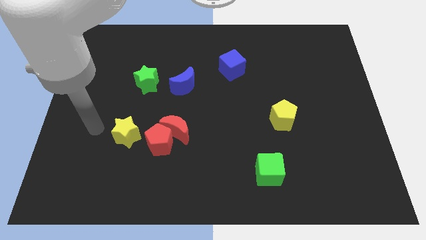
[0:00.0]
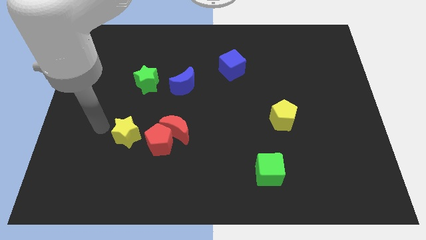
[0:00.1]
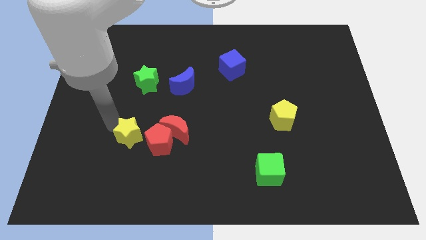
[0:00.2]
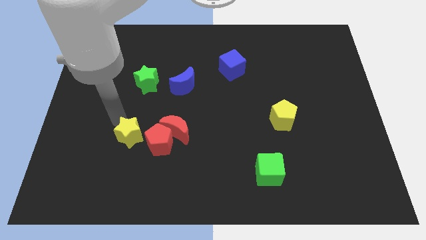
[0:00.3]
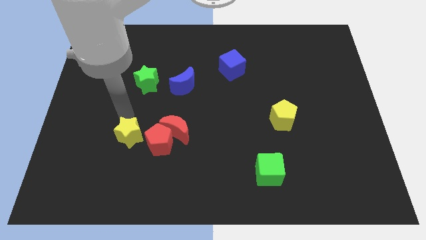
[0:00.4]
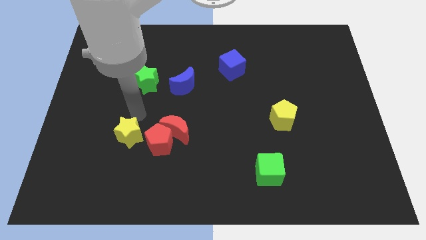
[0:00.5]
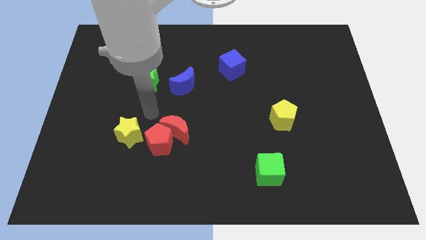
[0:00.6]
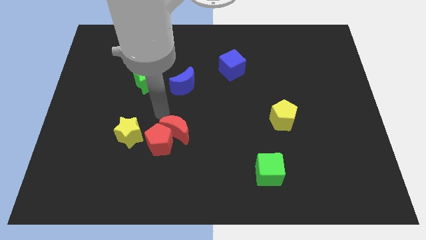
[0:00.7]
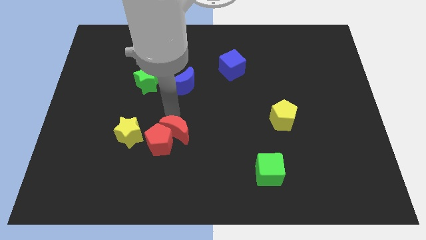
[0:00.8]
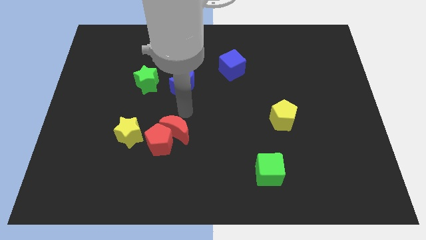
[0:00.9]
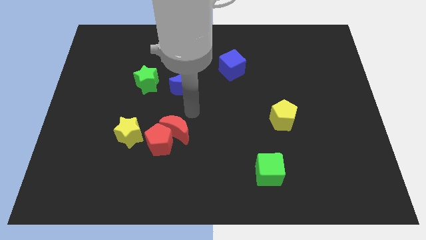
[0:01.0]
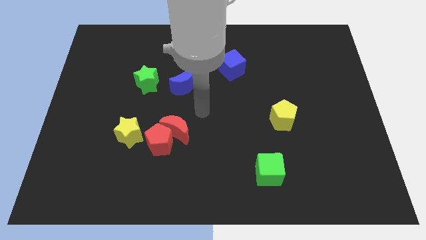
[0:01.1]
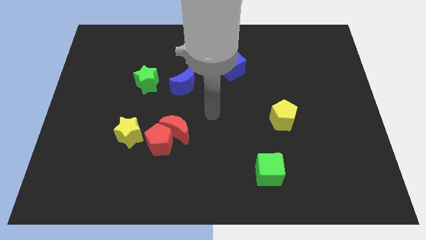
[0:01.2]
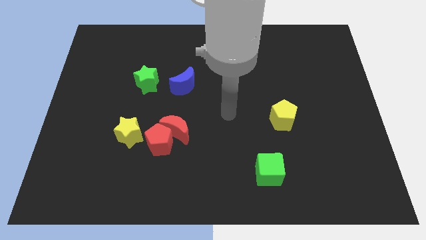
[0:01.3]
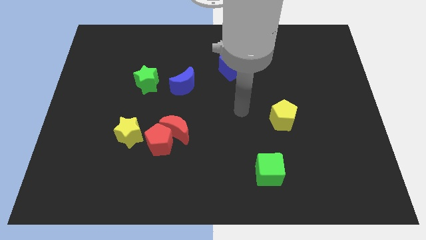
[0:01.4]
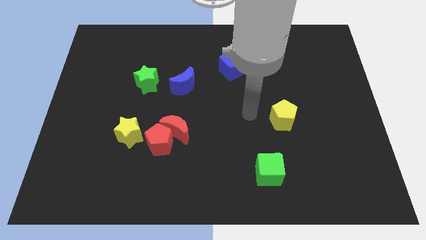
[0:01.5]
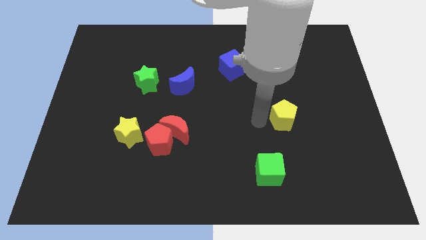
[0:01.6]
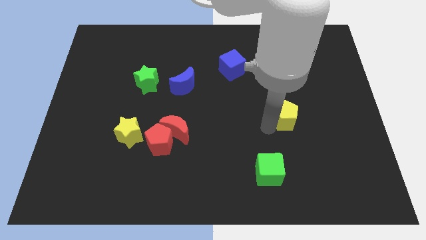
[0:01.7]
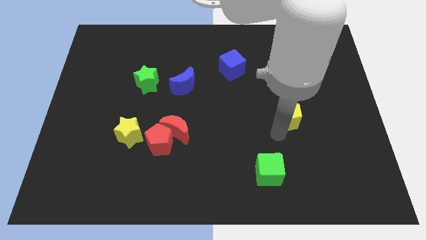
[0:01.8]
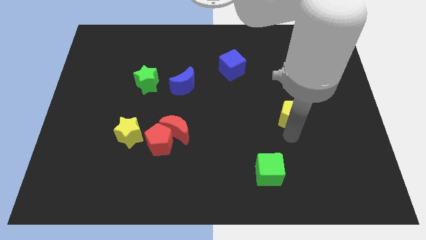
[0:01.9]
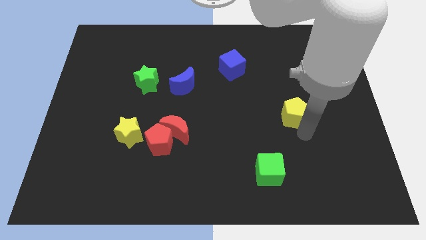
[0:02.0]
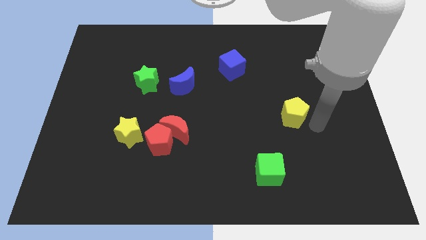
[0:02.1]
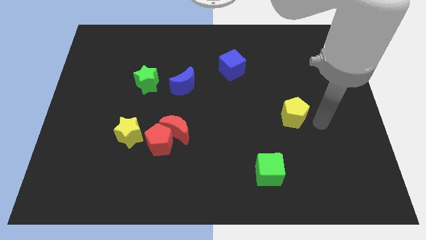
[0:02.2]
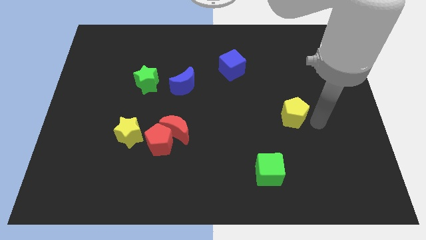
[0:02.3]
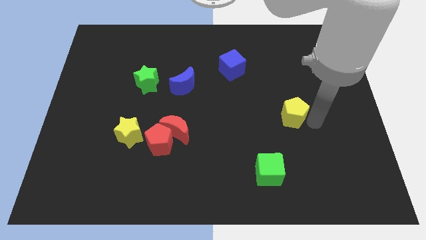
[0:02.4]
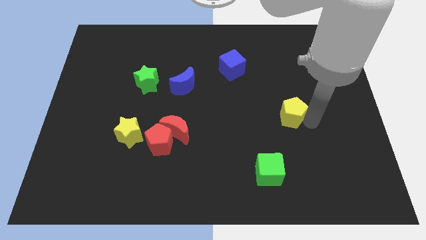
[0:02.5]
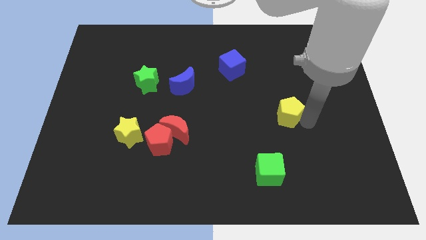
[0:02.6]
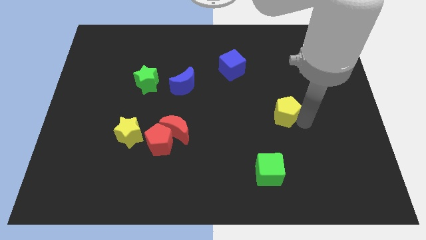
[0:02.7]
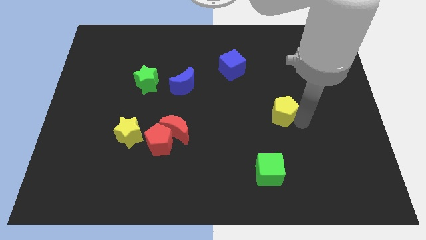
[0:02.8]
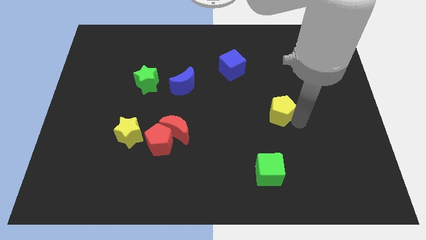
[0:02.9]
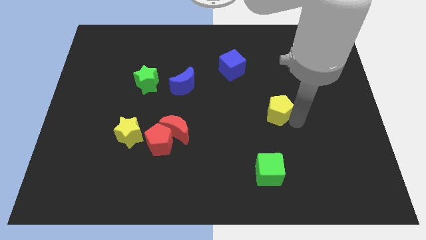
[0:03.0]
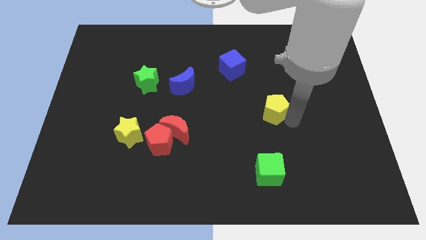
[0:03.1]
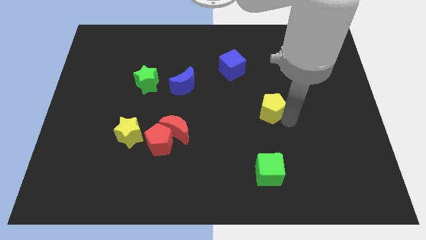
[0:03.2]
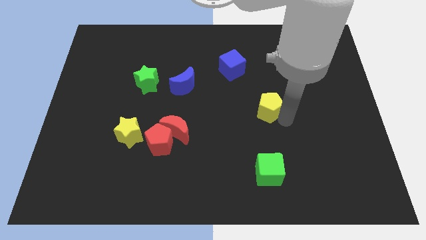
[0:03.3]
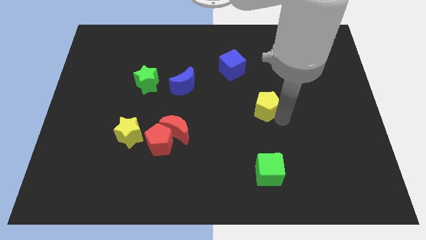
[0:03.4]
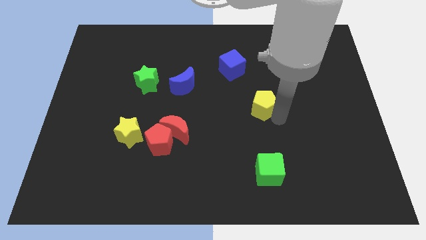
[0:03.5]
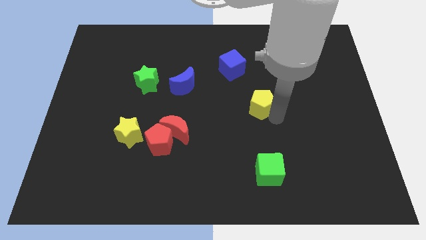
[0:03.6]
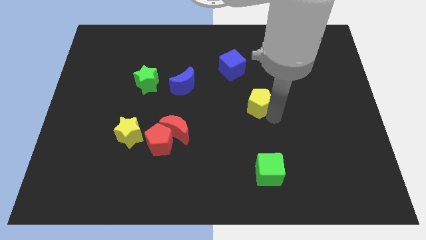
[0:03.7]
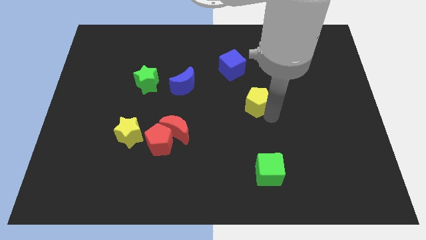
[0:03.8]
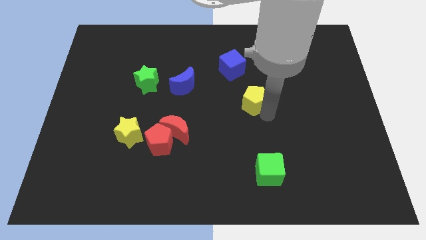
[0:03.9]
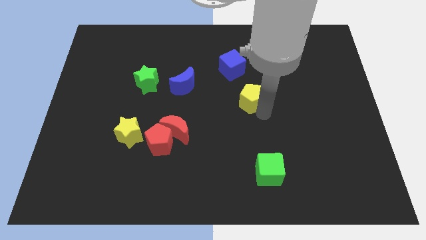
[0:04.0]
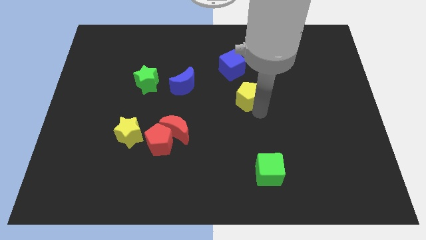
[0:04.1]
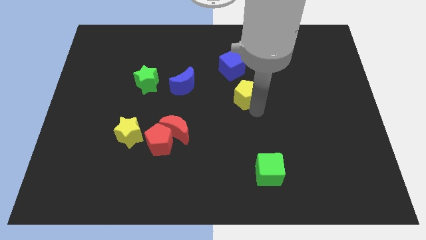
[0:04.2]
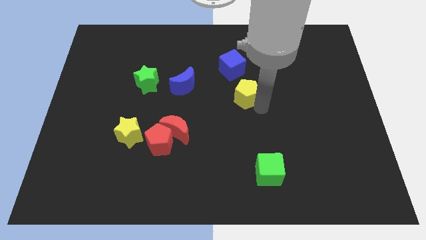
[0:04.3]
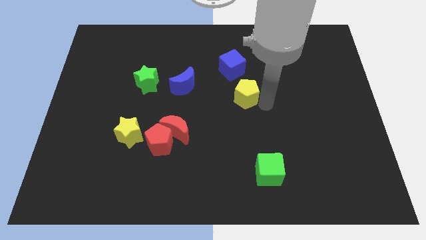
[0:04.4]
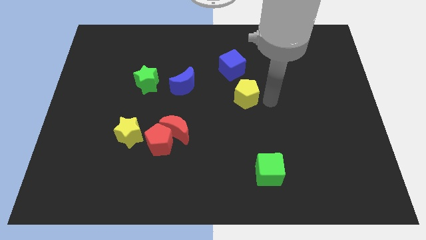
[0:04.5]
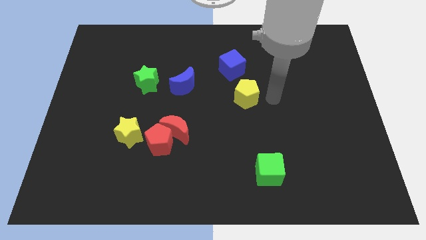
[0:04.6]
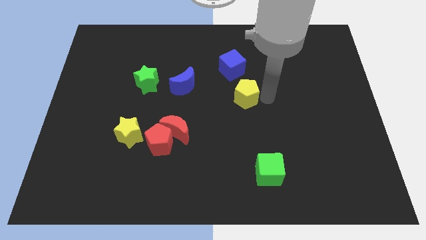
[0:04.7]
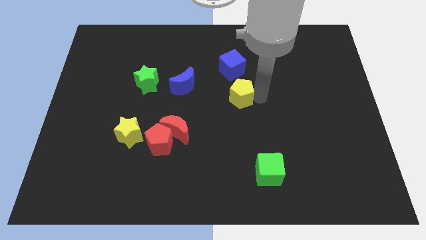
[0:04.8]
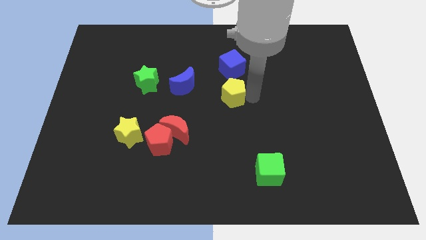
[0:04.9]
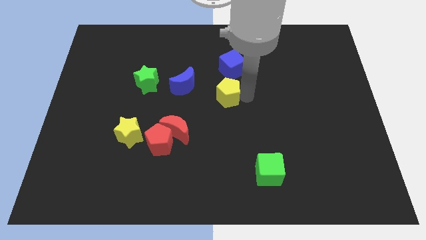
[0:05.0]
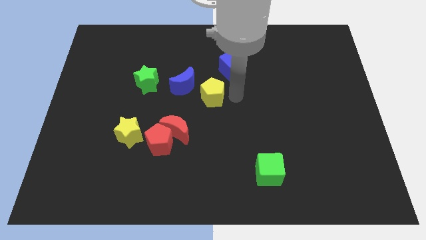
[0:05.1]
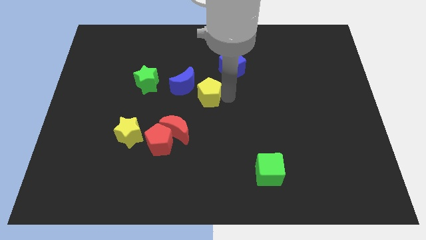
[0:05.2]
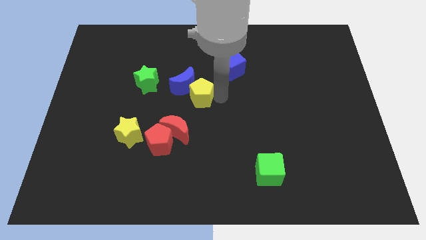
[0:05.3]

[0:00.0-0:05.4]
move the yellow pentagon next to the blue moon

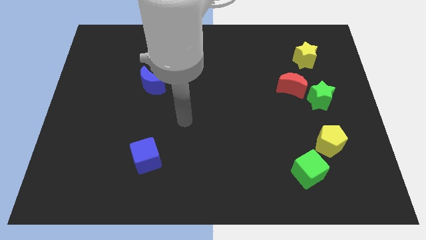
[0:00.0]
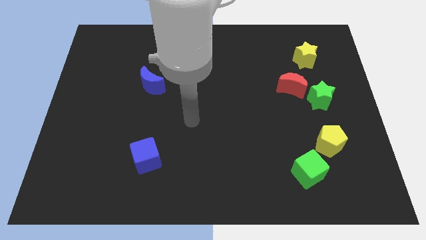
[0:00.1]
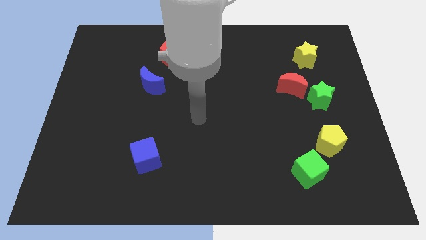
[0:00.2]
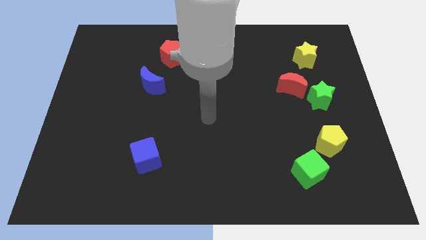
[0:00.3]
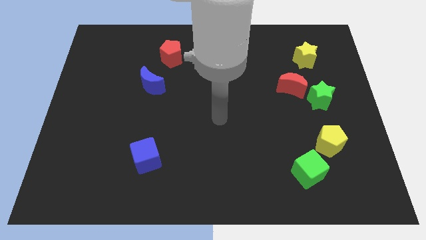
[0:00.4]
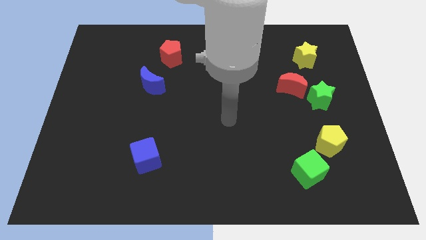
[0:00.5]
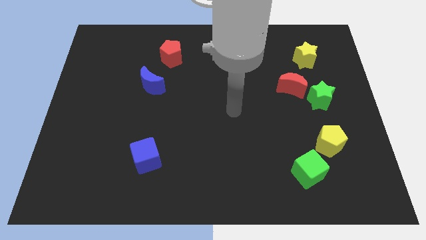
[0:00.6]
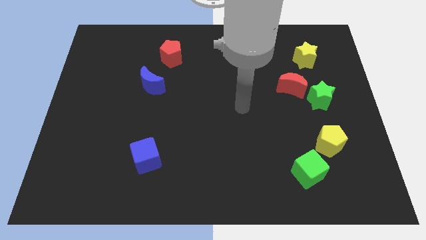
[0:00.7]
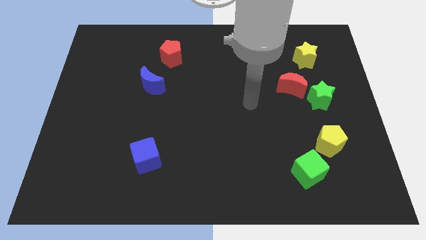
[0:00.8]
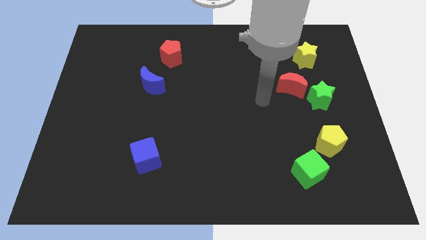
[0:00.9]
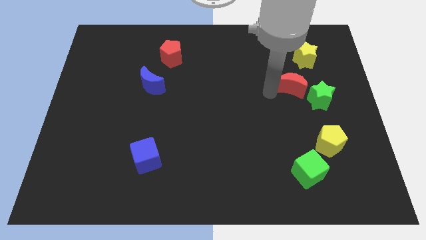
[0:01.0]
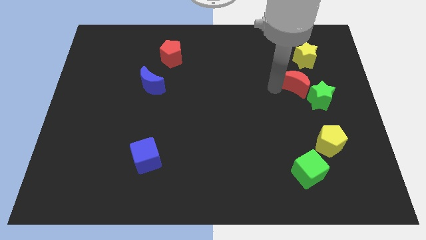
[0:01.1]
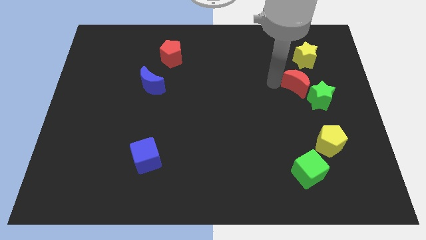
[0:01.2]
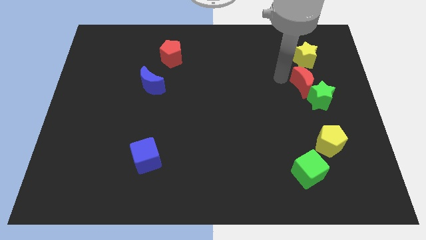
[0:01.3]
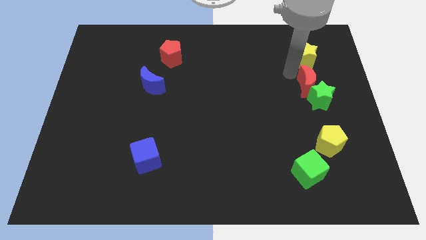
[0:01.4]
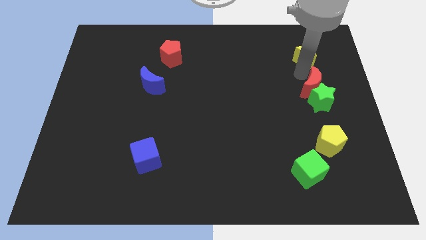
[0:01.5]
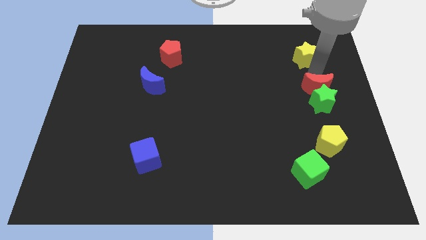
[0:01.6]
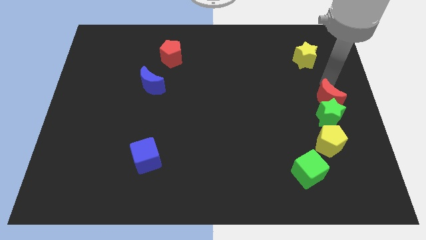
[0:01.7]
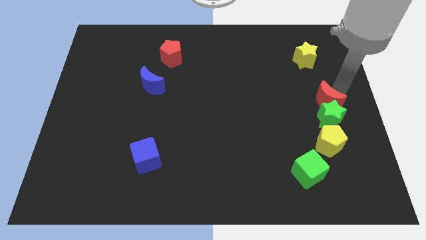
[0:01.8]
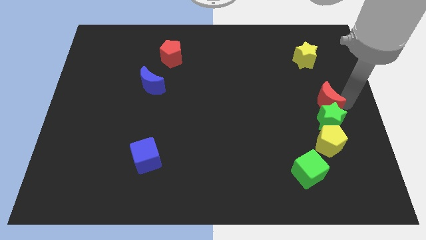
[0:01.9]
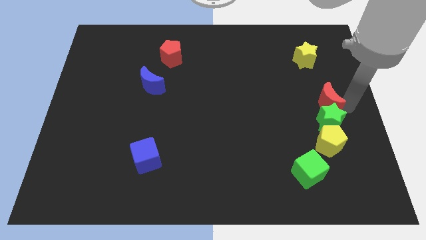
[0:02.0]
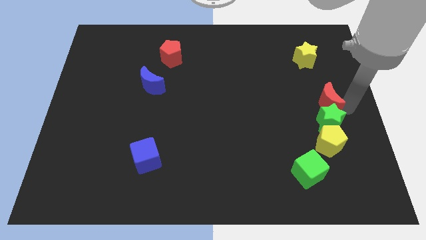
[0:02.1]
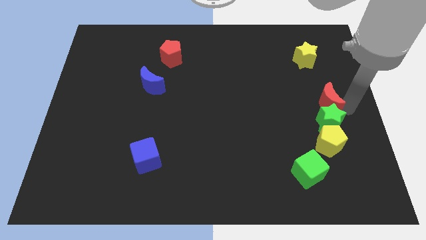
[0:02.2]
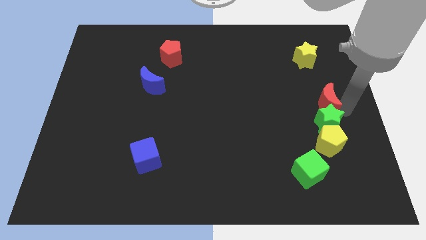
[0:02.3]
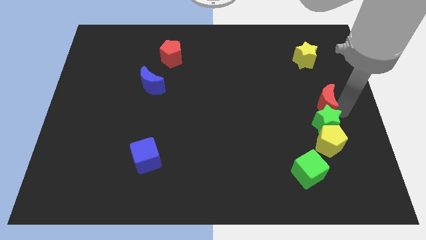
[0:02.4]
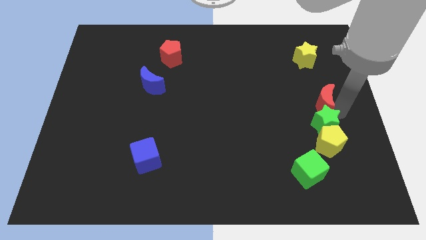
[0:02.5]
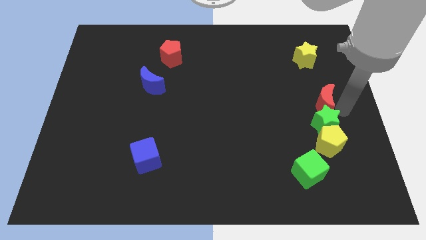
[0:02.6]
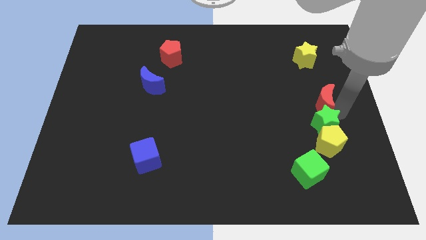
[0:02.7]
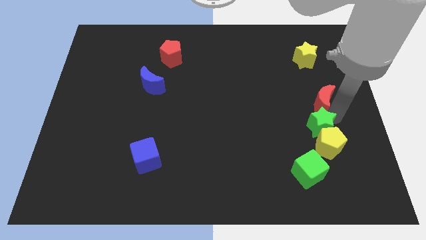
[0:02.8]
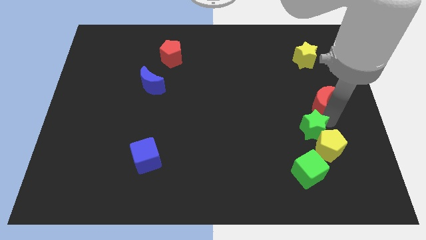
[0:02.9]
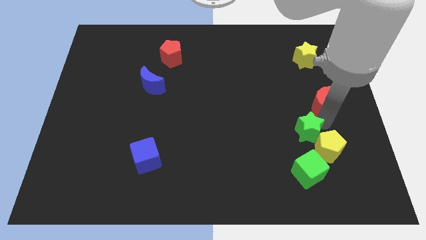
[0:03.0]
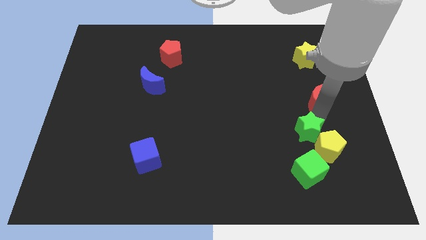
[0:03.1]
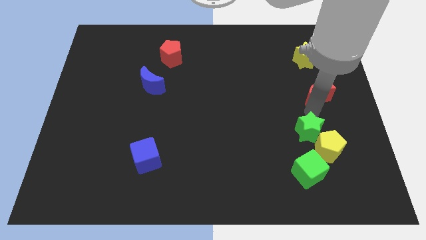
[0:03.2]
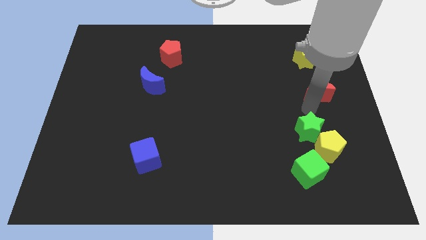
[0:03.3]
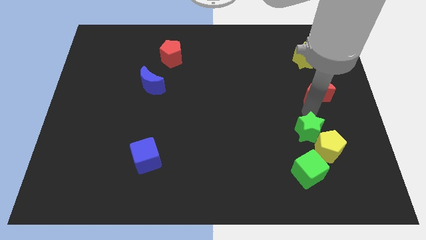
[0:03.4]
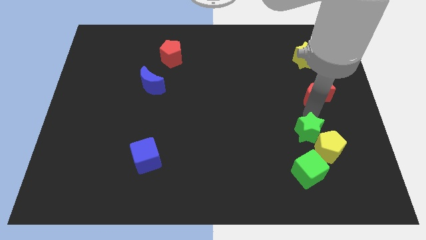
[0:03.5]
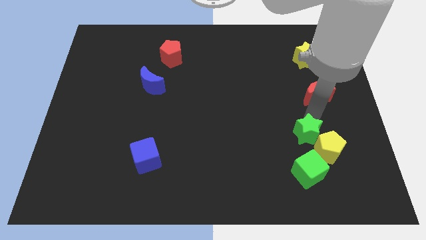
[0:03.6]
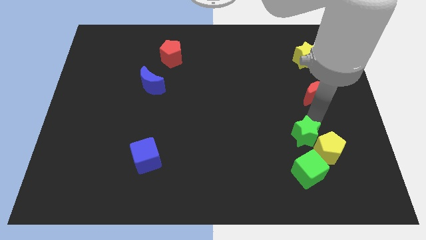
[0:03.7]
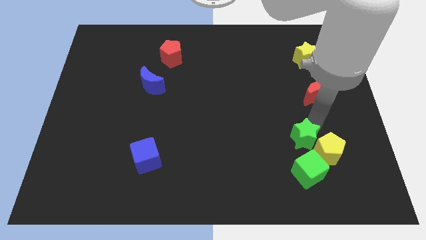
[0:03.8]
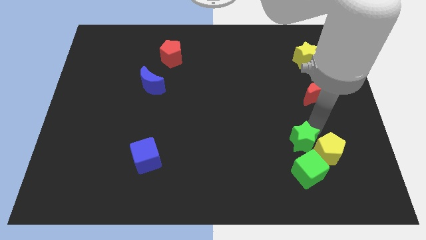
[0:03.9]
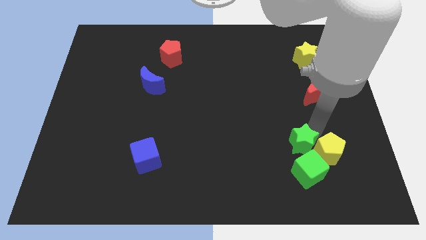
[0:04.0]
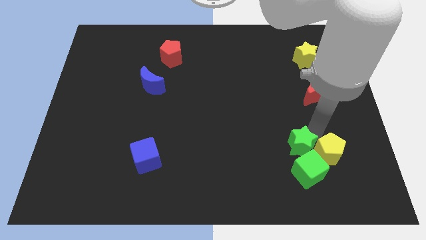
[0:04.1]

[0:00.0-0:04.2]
slide the green star towards the green cube
